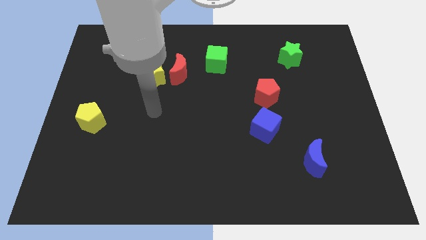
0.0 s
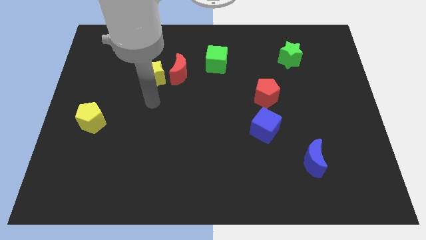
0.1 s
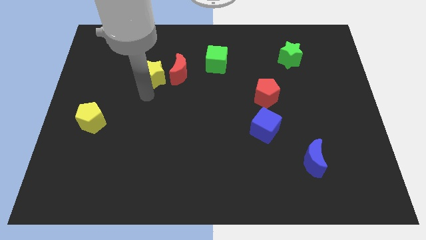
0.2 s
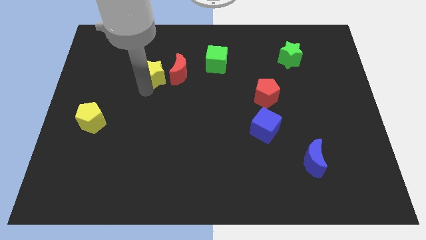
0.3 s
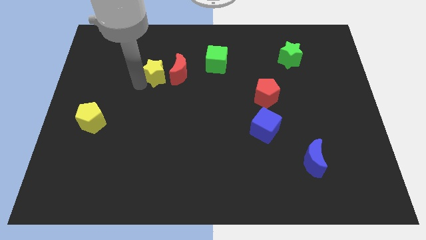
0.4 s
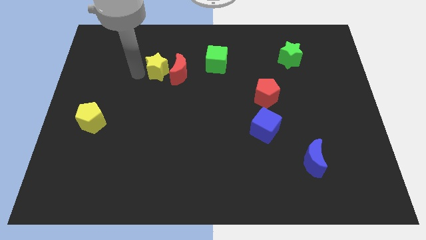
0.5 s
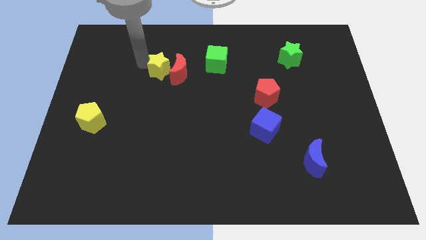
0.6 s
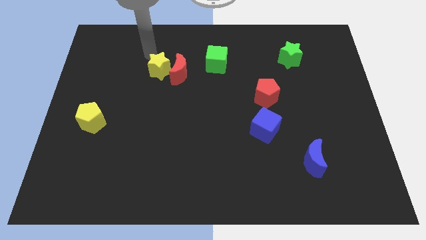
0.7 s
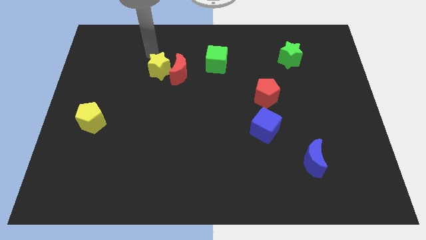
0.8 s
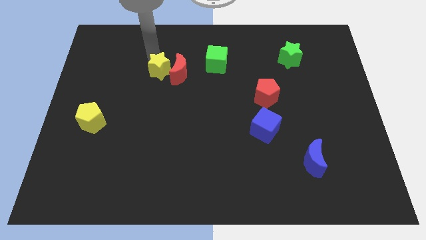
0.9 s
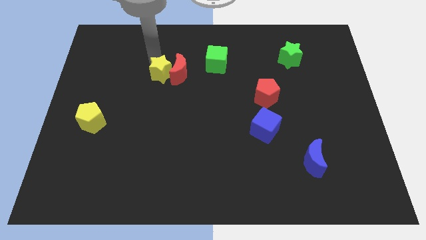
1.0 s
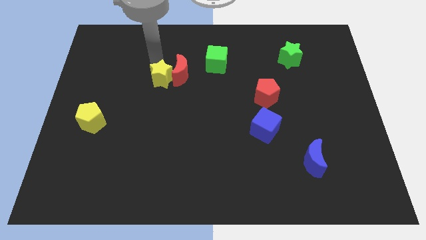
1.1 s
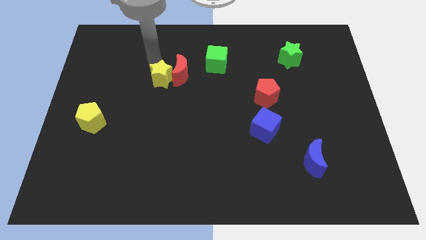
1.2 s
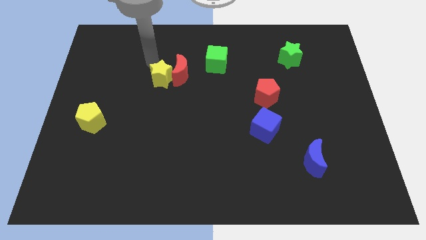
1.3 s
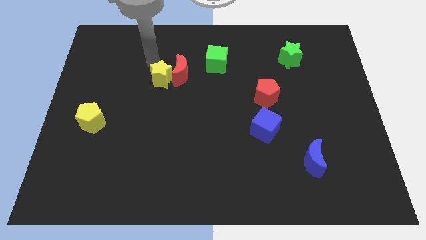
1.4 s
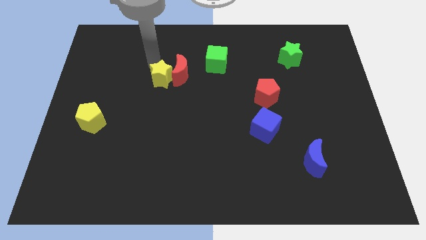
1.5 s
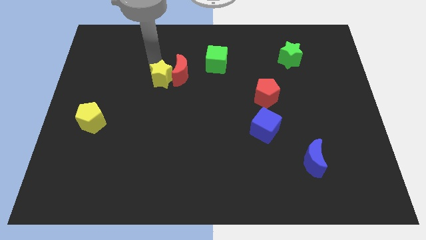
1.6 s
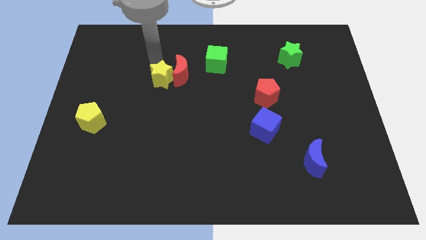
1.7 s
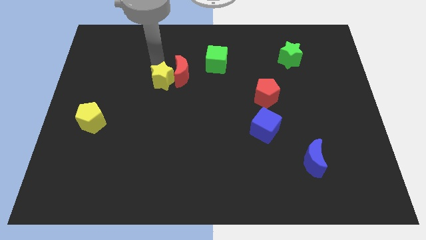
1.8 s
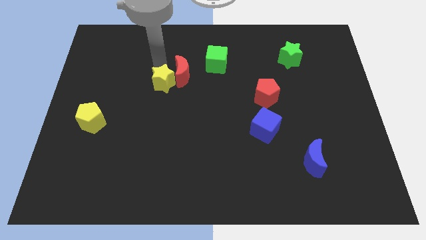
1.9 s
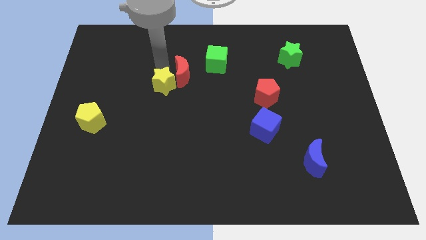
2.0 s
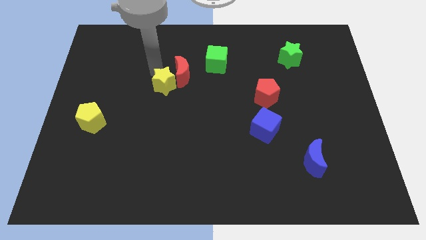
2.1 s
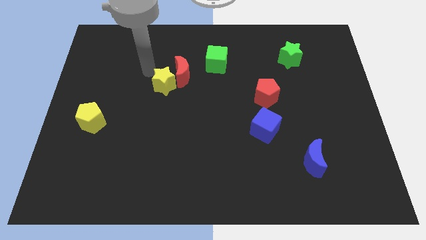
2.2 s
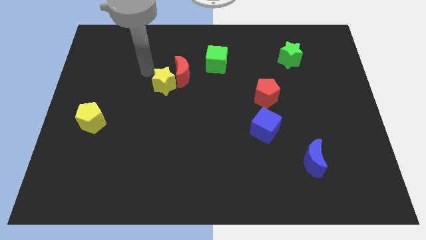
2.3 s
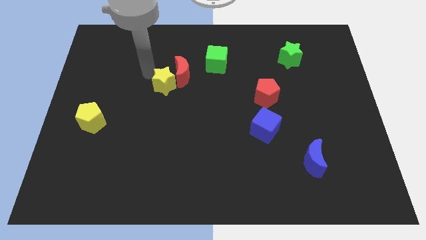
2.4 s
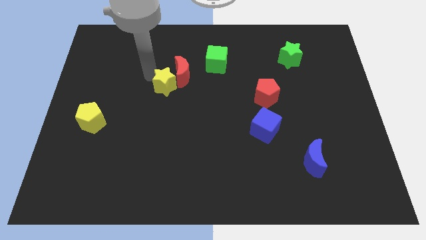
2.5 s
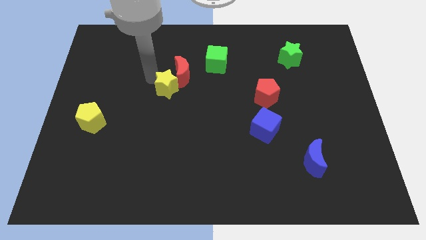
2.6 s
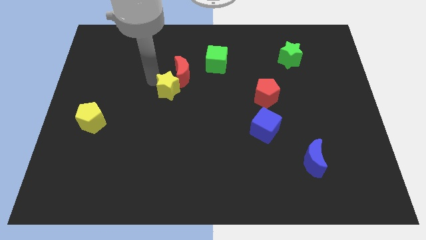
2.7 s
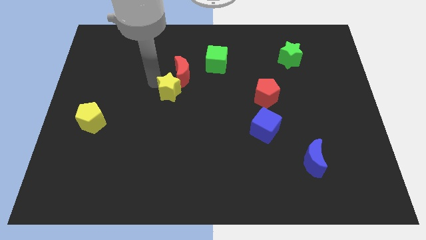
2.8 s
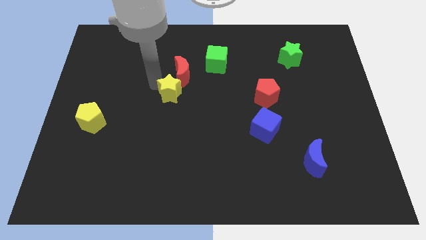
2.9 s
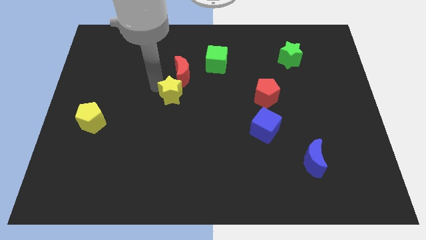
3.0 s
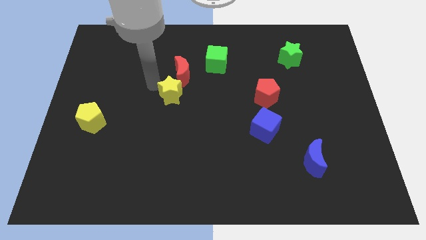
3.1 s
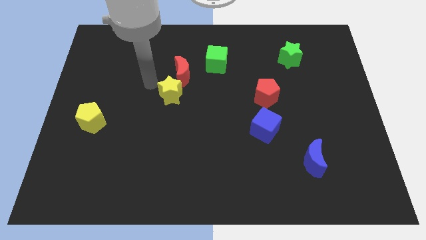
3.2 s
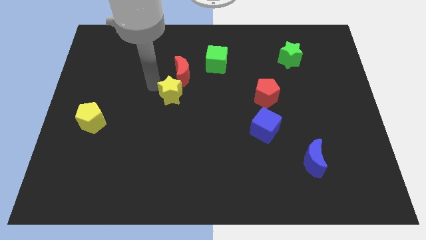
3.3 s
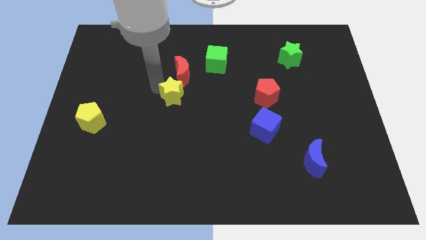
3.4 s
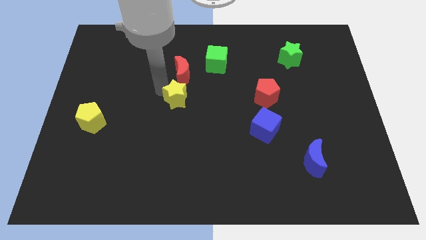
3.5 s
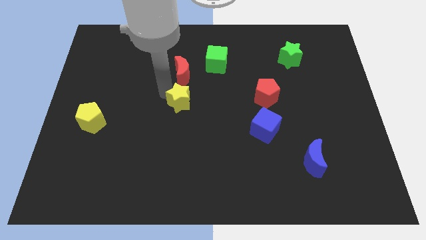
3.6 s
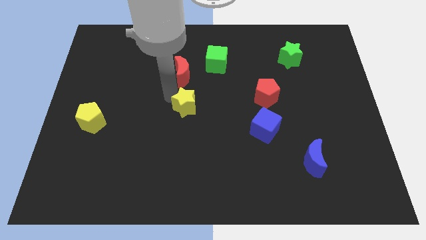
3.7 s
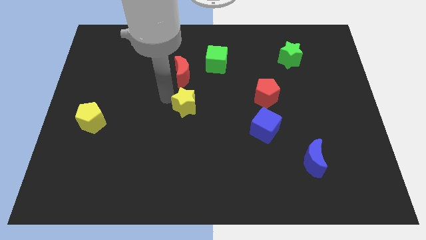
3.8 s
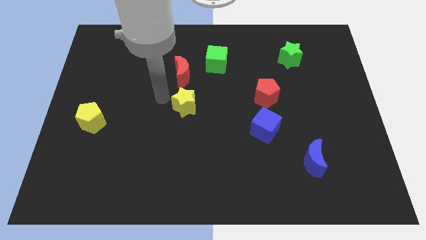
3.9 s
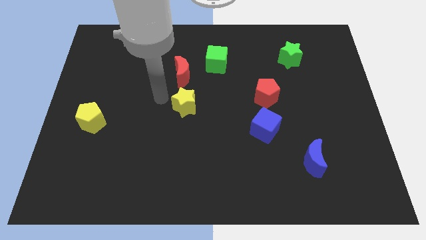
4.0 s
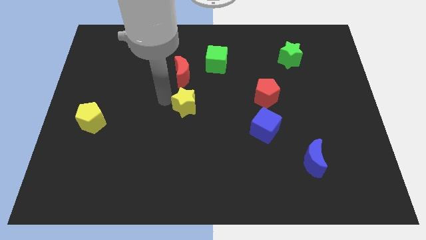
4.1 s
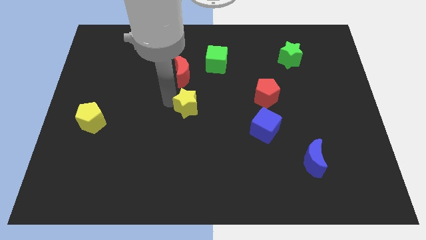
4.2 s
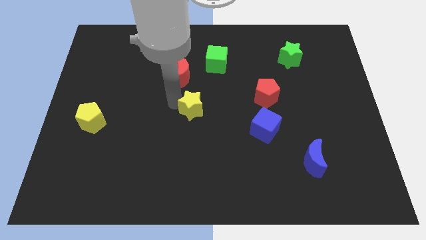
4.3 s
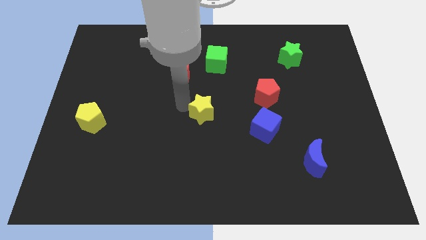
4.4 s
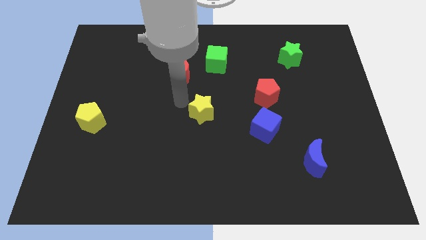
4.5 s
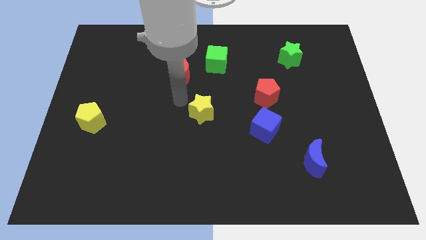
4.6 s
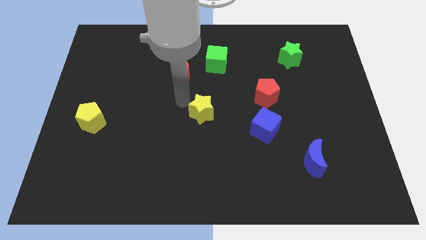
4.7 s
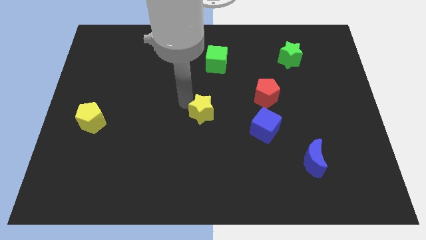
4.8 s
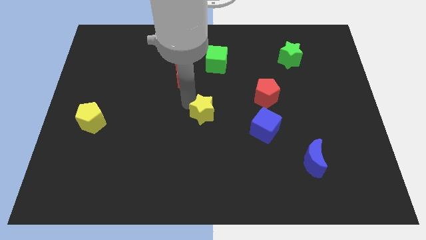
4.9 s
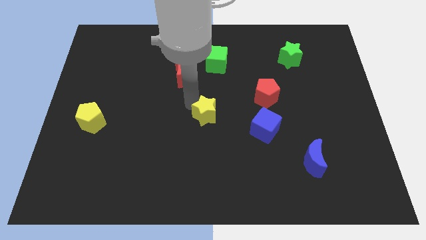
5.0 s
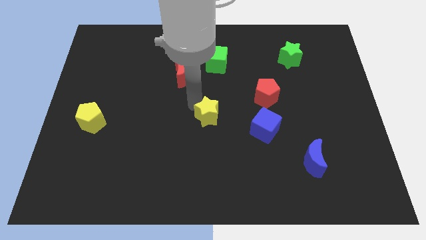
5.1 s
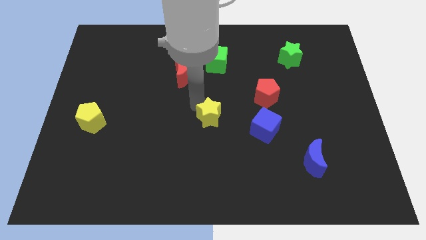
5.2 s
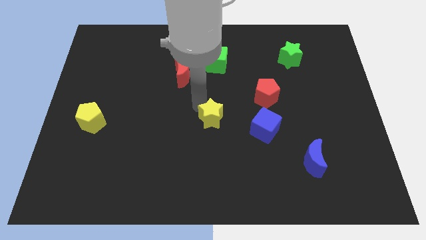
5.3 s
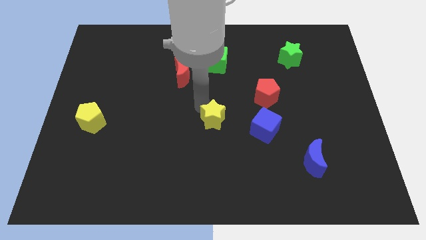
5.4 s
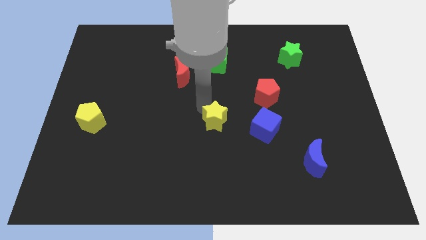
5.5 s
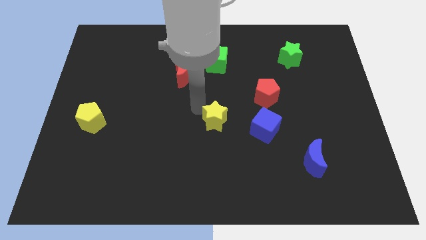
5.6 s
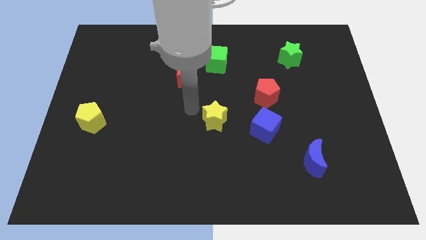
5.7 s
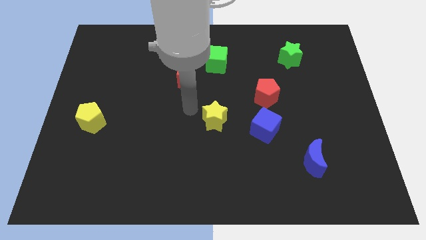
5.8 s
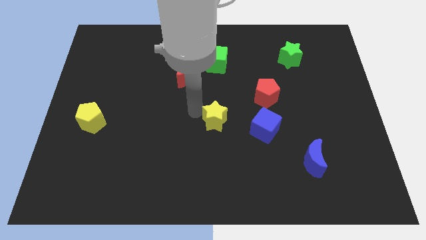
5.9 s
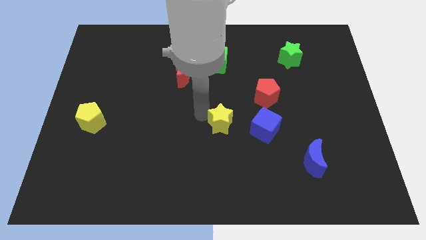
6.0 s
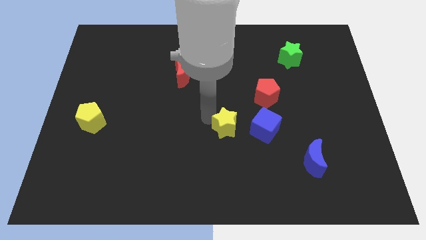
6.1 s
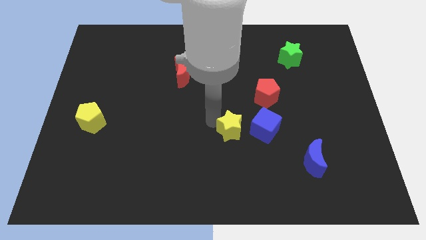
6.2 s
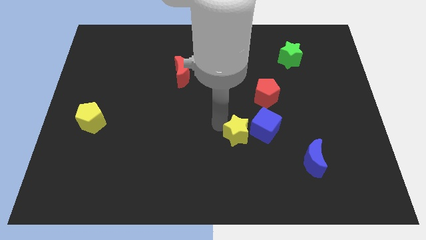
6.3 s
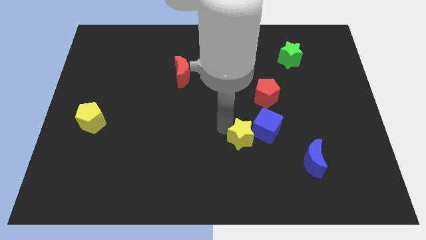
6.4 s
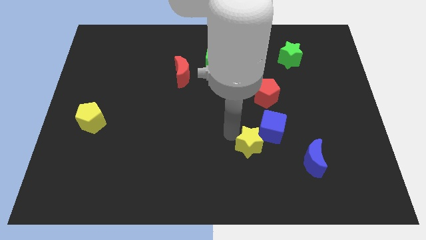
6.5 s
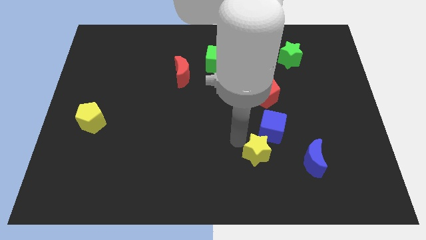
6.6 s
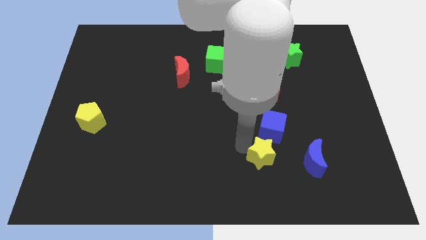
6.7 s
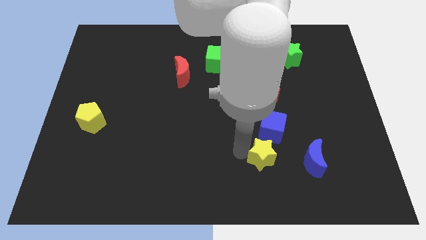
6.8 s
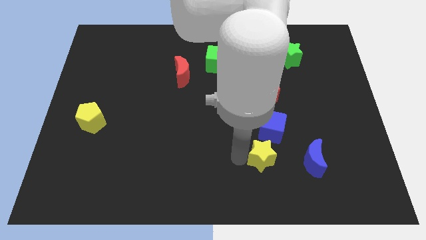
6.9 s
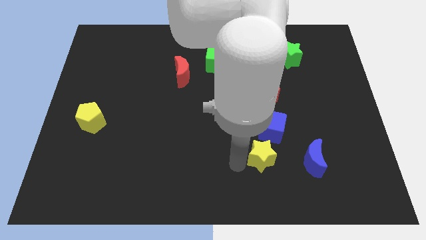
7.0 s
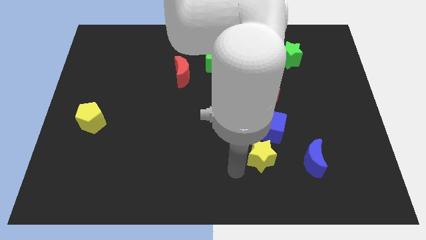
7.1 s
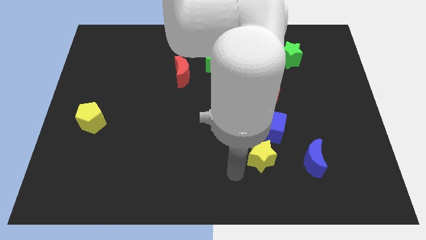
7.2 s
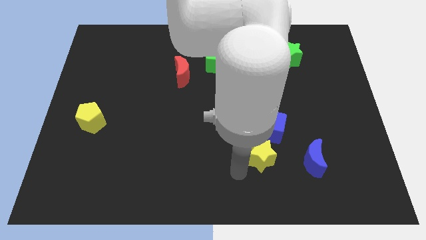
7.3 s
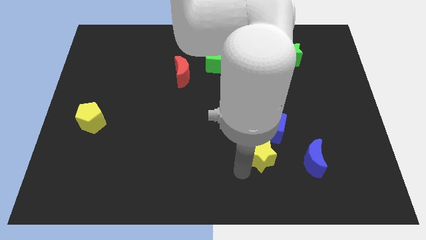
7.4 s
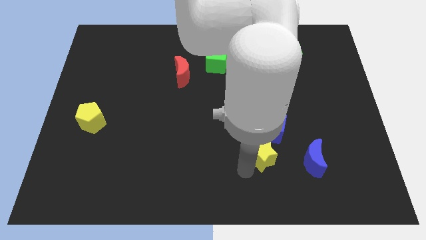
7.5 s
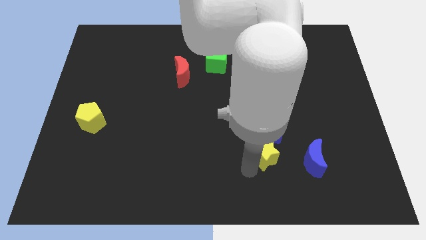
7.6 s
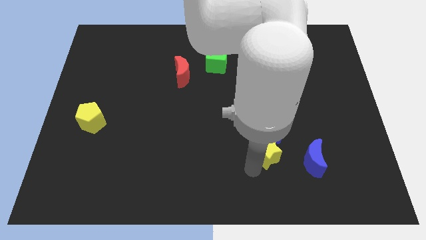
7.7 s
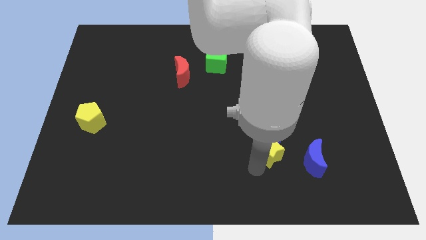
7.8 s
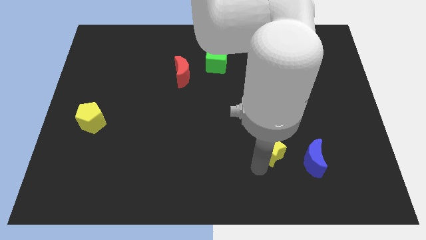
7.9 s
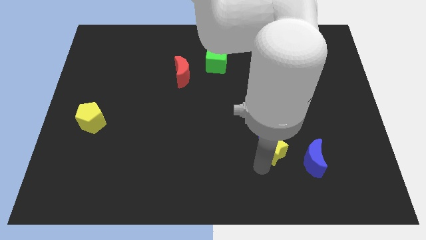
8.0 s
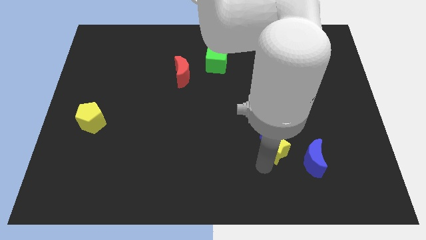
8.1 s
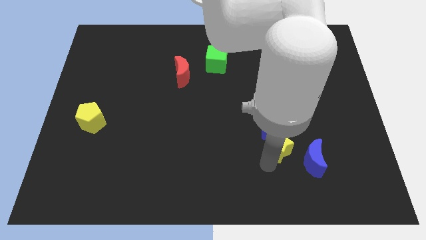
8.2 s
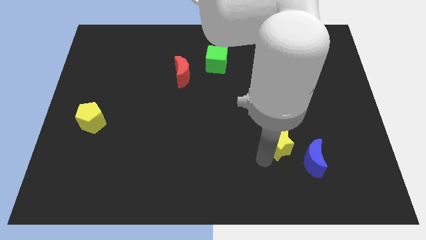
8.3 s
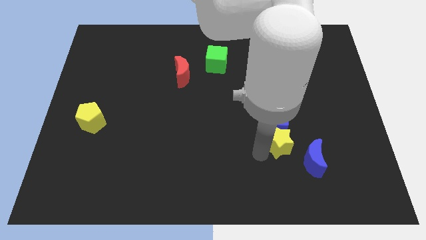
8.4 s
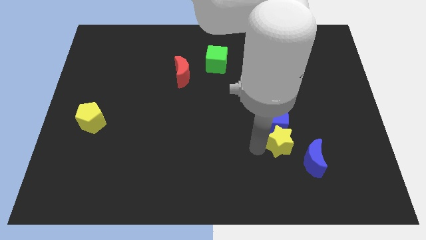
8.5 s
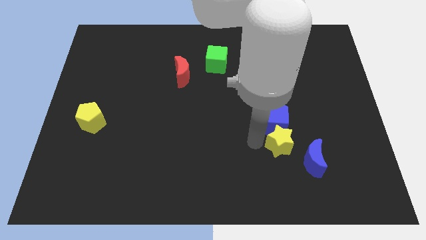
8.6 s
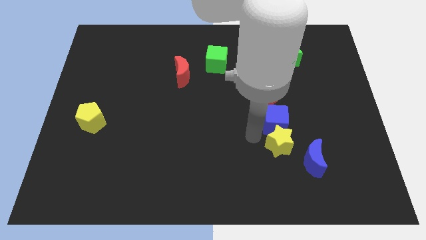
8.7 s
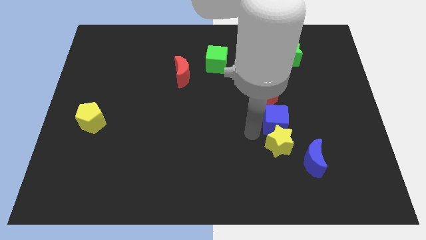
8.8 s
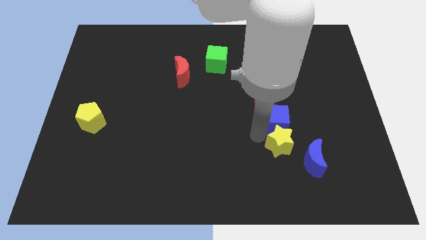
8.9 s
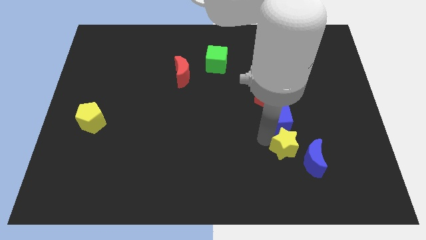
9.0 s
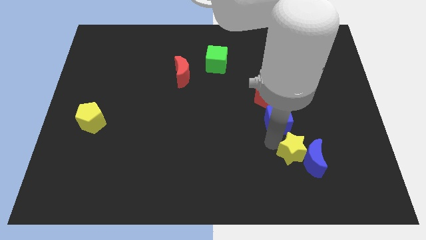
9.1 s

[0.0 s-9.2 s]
move the yellow star towards the blue moon
